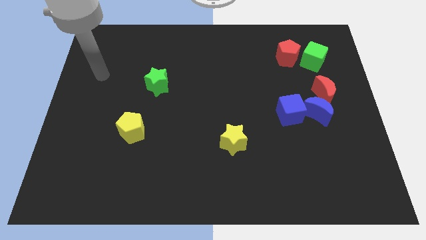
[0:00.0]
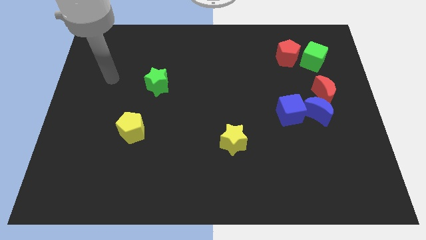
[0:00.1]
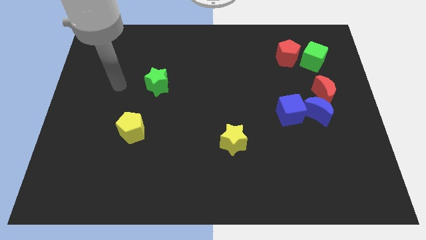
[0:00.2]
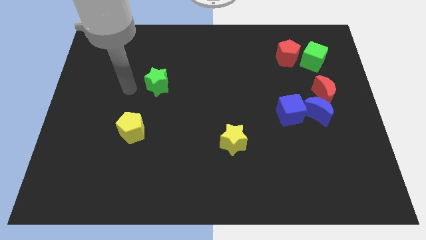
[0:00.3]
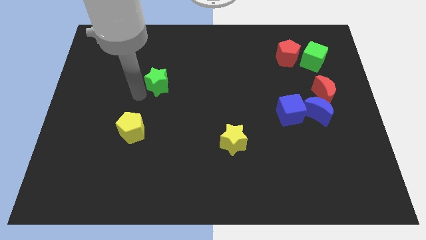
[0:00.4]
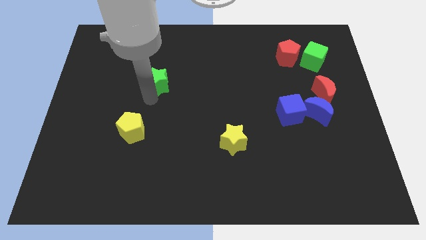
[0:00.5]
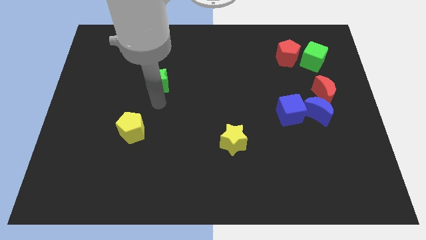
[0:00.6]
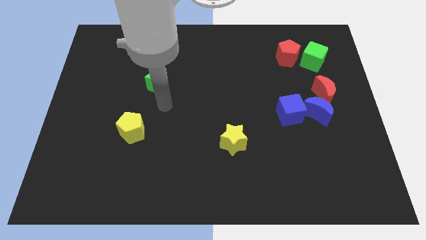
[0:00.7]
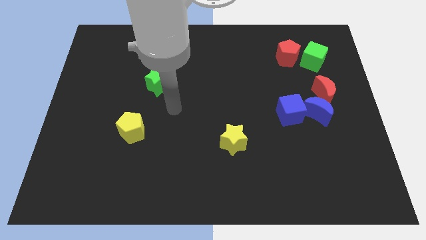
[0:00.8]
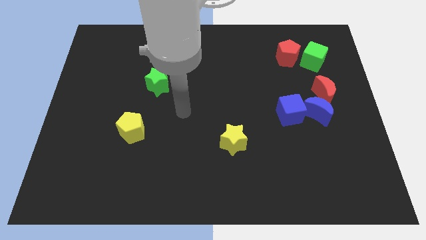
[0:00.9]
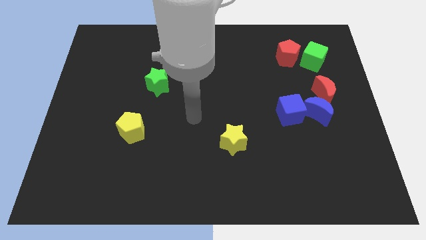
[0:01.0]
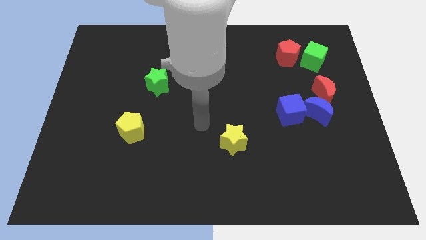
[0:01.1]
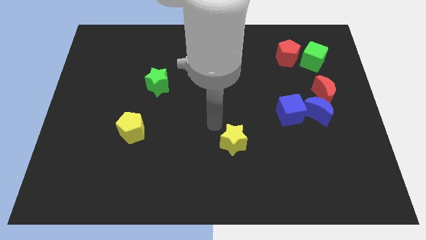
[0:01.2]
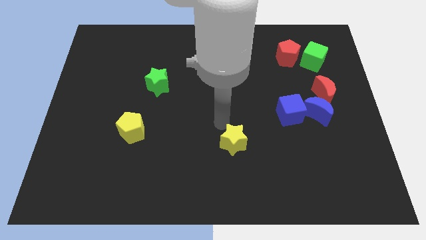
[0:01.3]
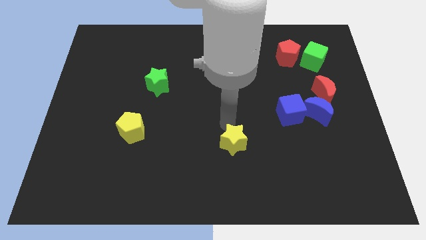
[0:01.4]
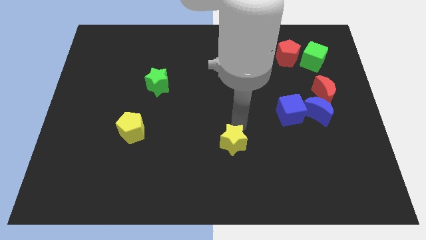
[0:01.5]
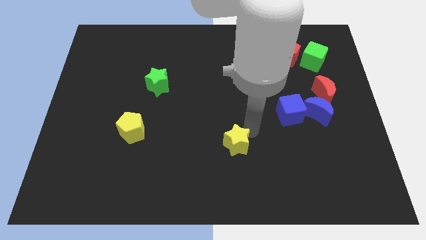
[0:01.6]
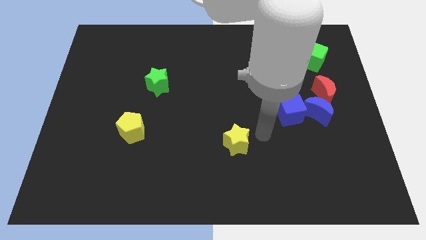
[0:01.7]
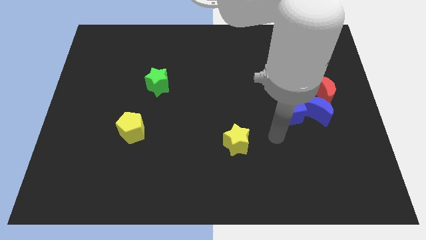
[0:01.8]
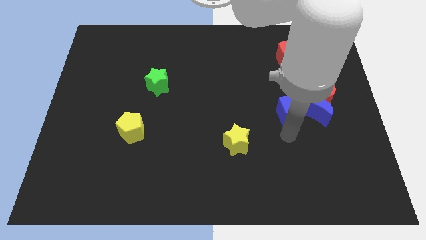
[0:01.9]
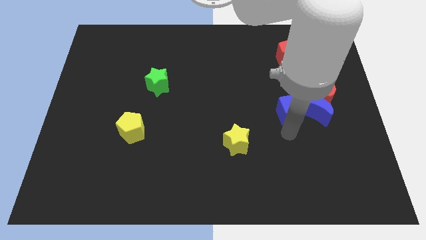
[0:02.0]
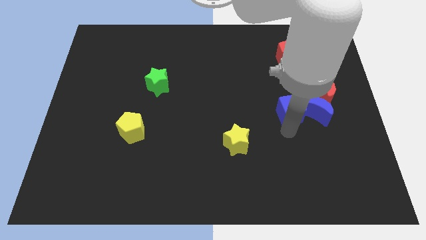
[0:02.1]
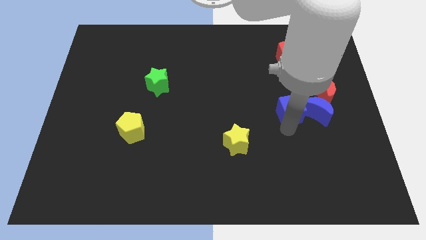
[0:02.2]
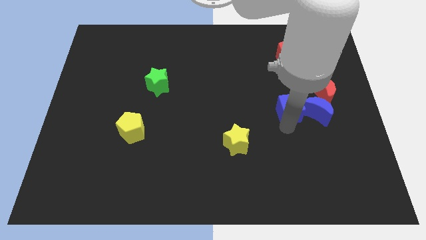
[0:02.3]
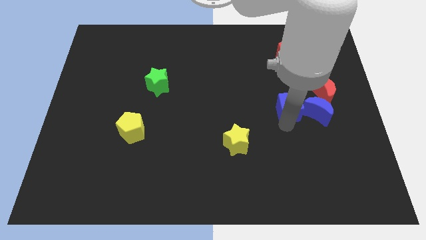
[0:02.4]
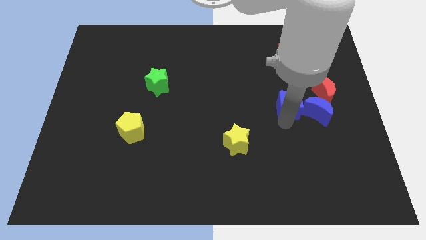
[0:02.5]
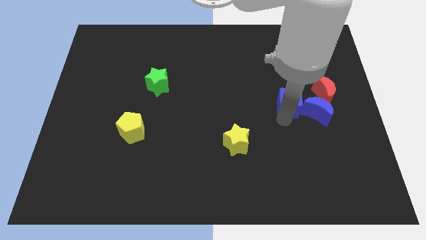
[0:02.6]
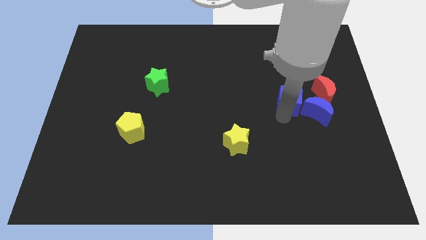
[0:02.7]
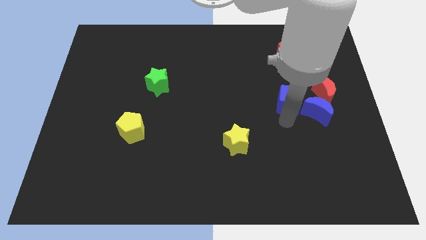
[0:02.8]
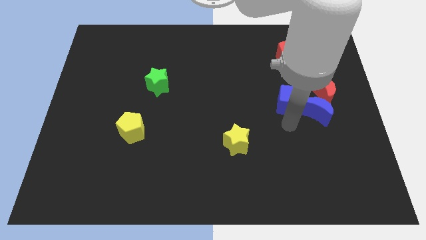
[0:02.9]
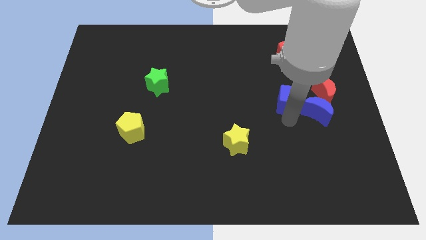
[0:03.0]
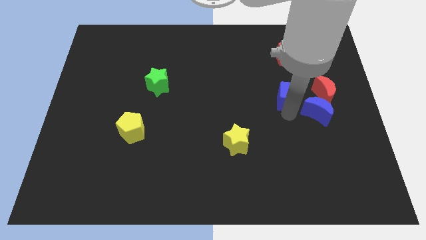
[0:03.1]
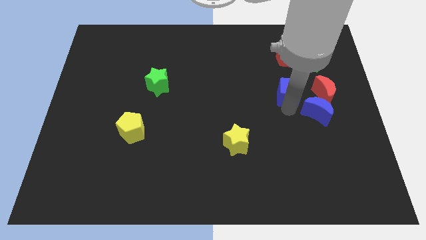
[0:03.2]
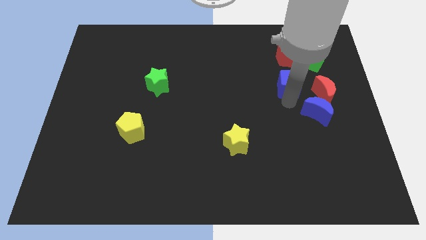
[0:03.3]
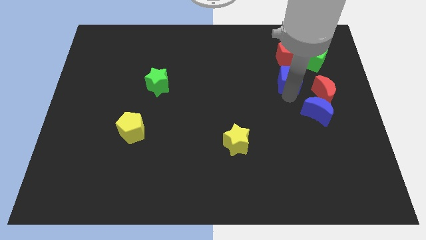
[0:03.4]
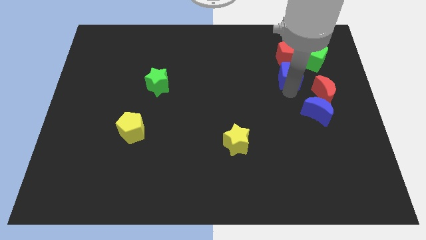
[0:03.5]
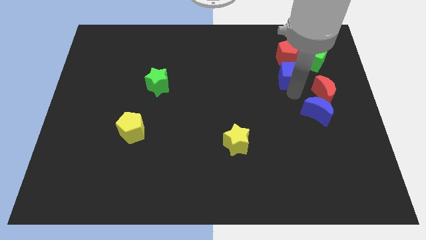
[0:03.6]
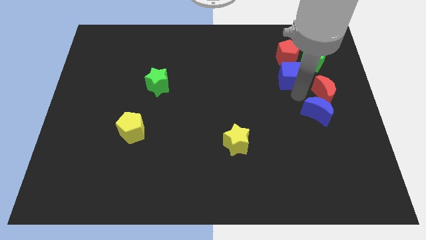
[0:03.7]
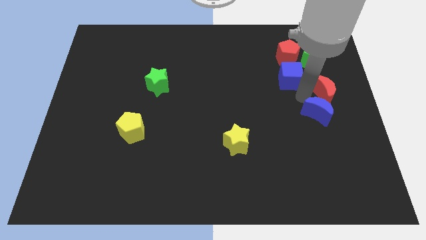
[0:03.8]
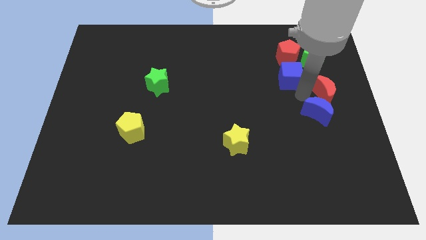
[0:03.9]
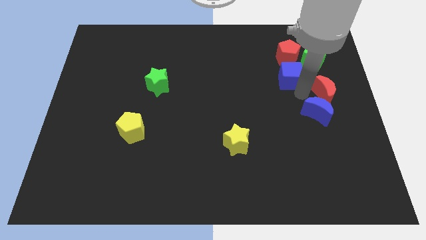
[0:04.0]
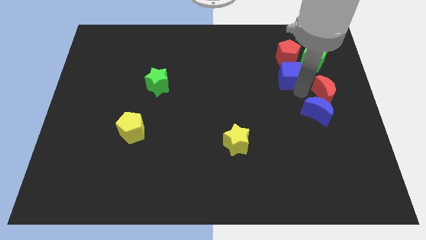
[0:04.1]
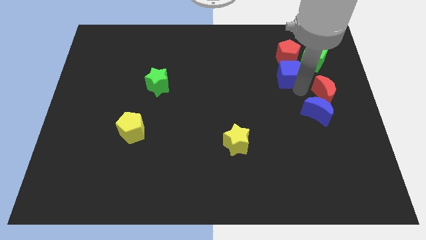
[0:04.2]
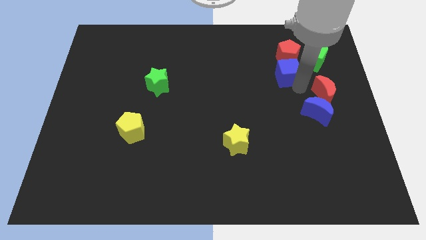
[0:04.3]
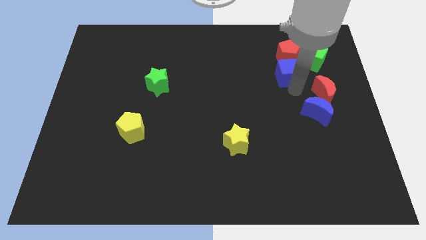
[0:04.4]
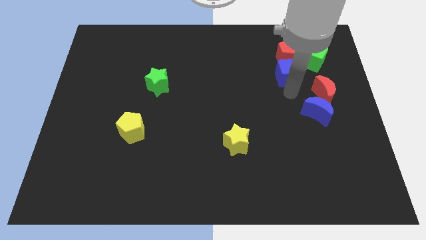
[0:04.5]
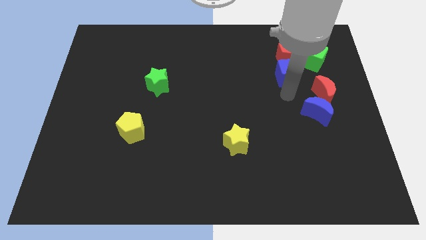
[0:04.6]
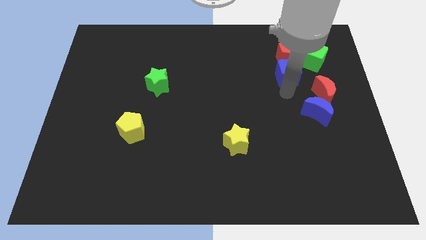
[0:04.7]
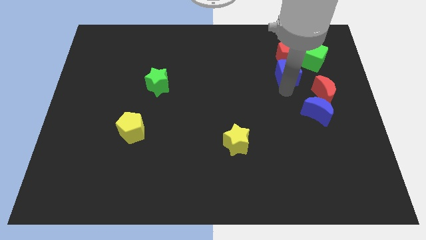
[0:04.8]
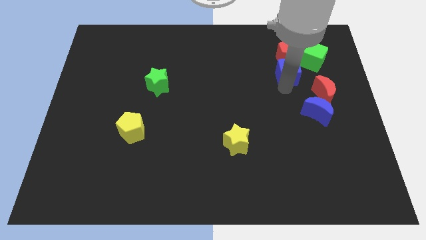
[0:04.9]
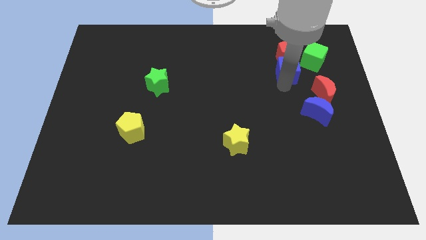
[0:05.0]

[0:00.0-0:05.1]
push the blue cube next to the red pentagon

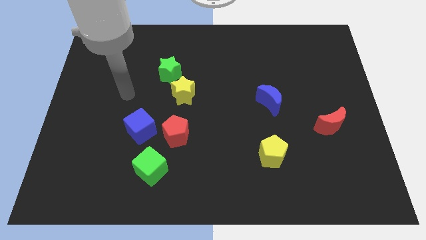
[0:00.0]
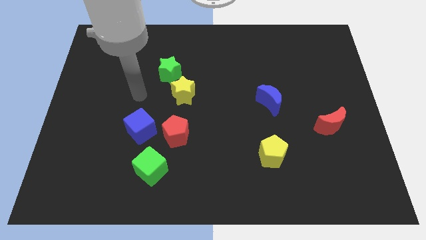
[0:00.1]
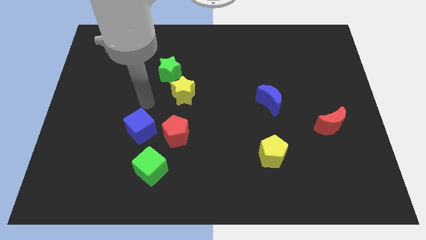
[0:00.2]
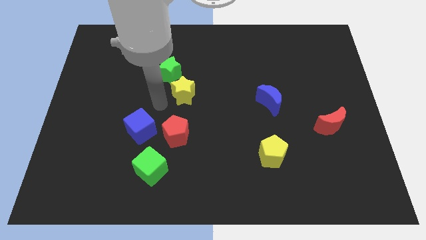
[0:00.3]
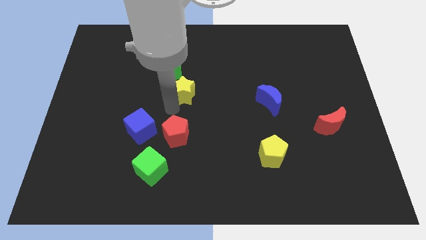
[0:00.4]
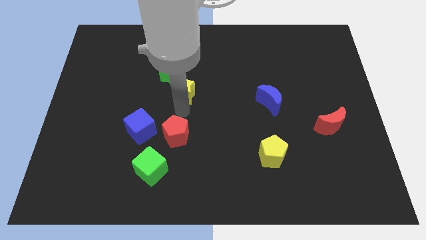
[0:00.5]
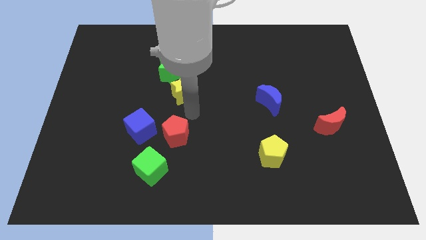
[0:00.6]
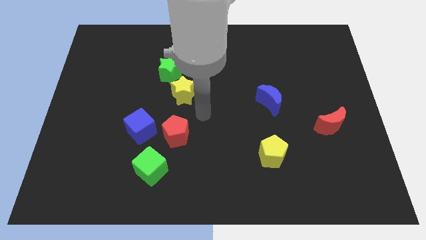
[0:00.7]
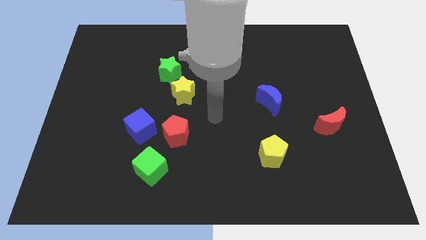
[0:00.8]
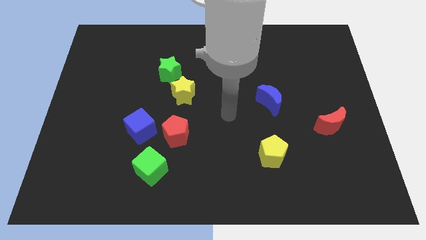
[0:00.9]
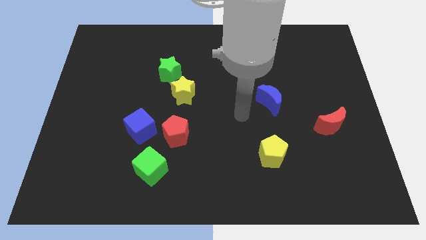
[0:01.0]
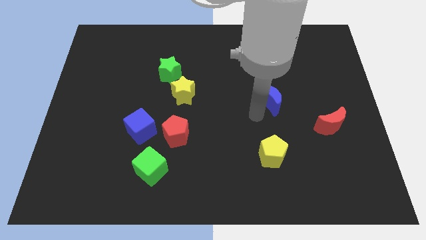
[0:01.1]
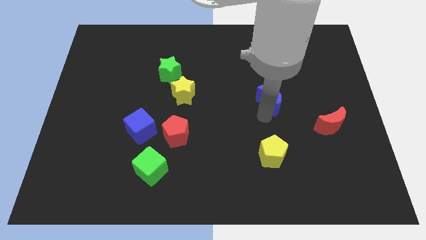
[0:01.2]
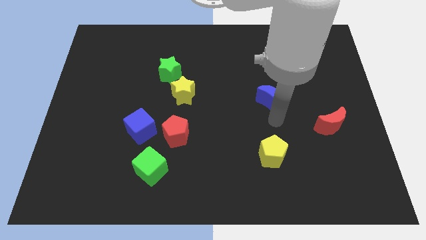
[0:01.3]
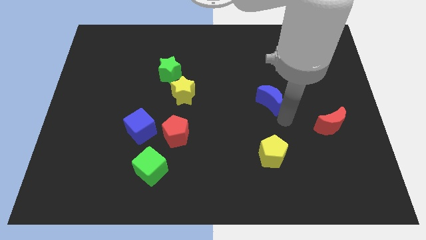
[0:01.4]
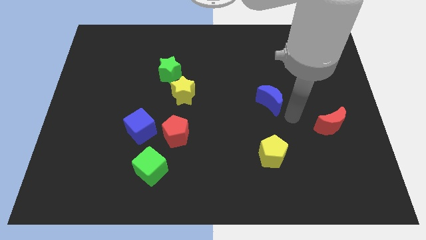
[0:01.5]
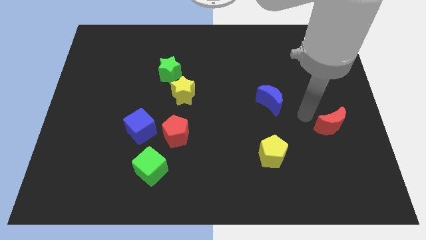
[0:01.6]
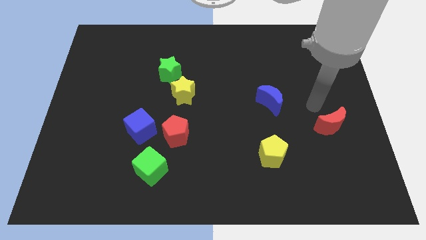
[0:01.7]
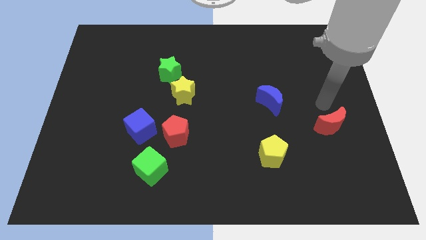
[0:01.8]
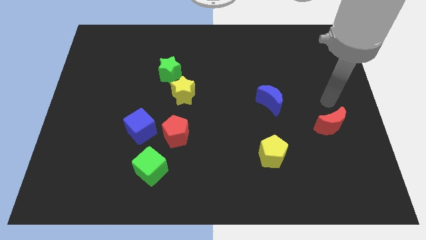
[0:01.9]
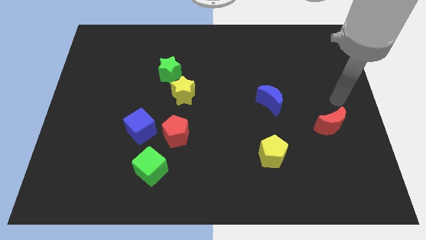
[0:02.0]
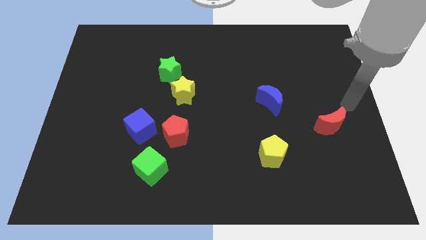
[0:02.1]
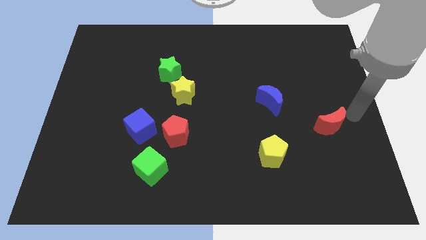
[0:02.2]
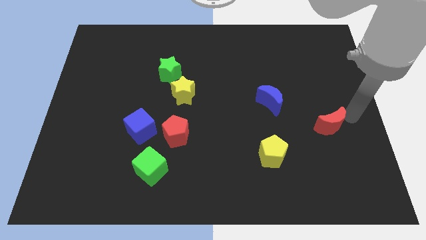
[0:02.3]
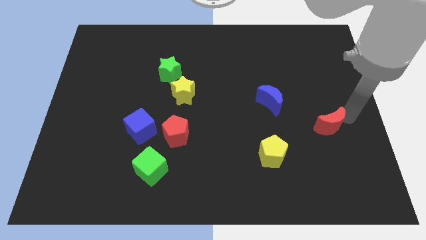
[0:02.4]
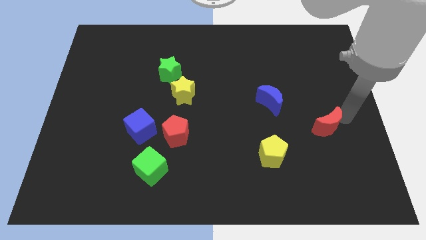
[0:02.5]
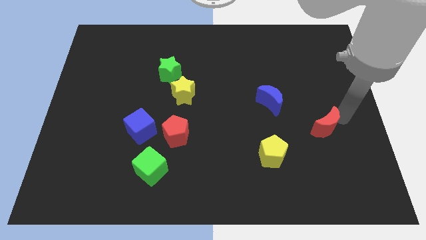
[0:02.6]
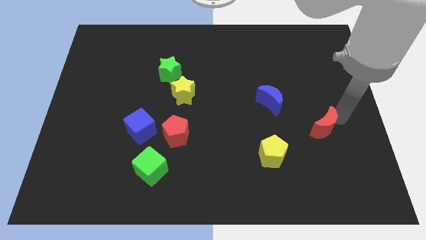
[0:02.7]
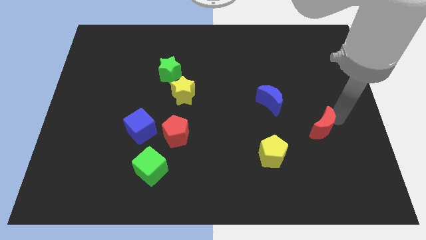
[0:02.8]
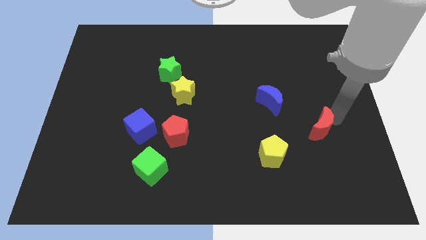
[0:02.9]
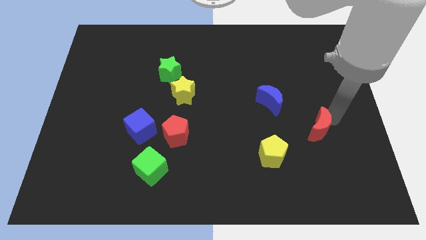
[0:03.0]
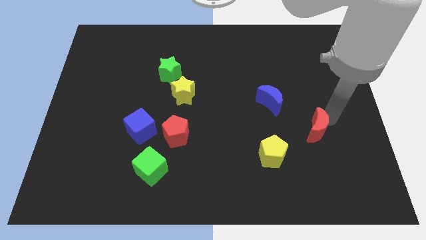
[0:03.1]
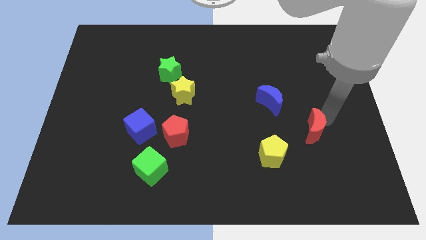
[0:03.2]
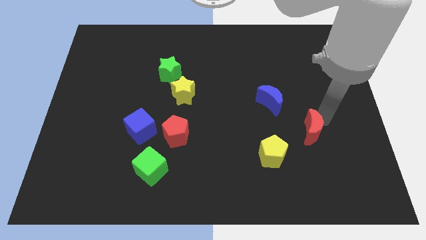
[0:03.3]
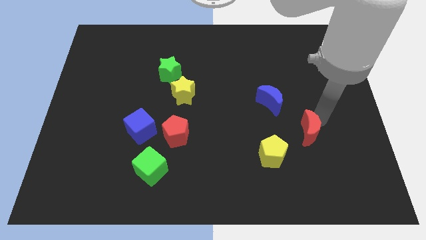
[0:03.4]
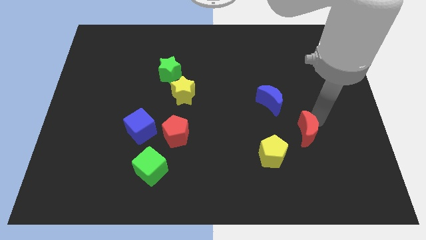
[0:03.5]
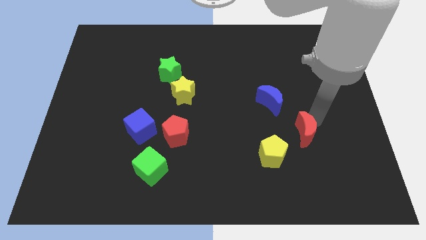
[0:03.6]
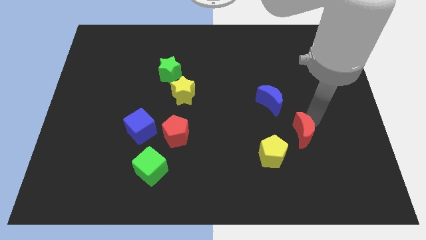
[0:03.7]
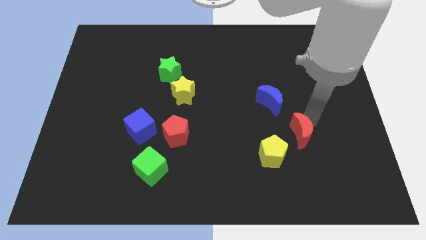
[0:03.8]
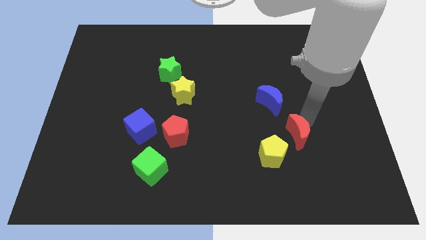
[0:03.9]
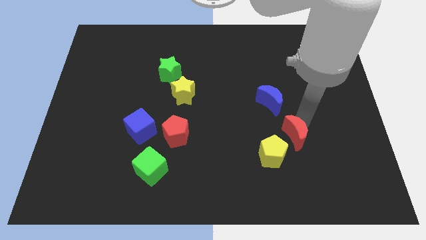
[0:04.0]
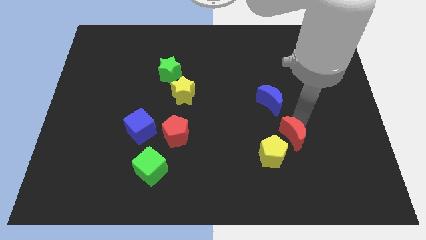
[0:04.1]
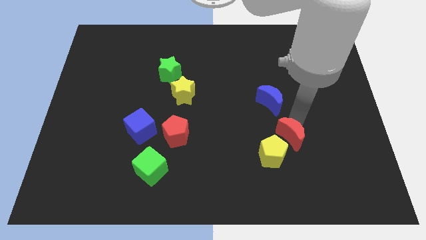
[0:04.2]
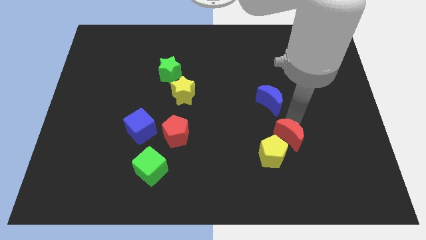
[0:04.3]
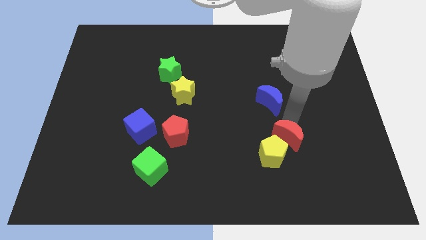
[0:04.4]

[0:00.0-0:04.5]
push the red moon next to the yellow pentagon
